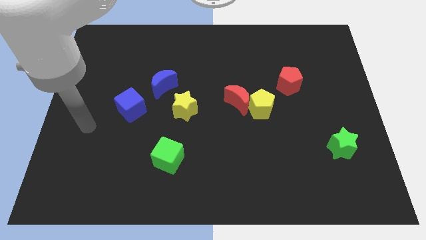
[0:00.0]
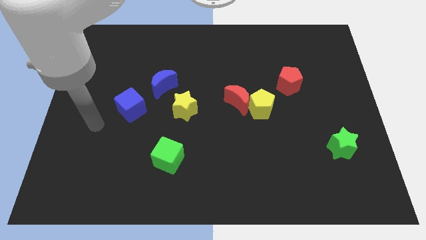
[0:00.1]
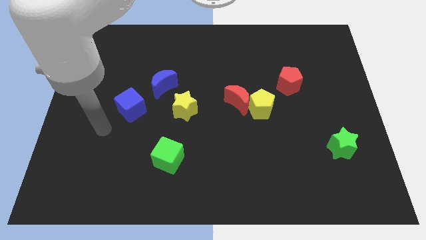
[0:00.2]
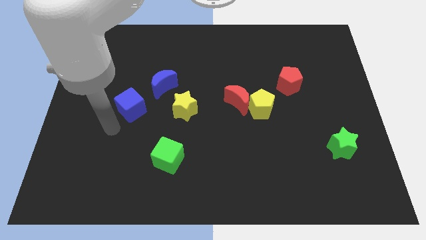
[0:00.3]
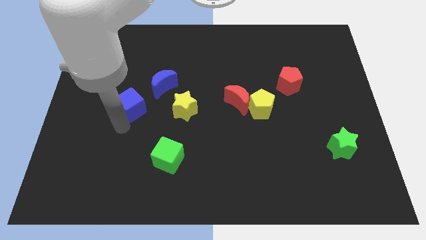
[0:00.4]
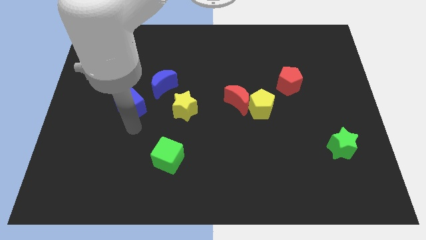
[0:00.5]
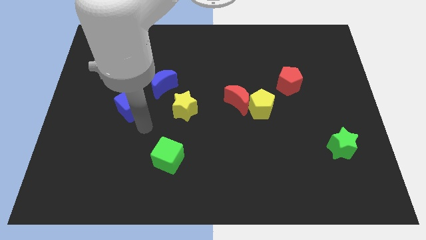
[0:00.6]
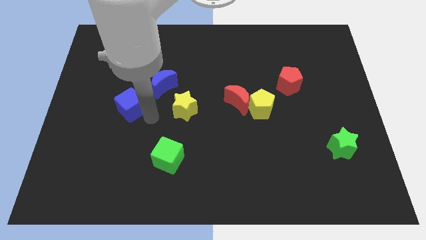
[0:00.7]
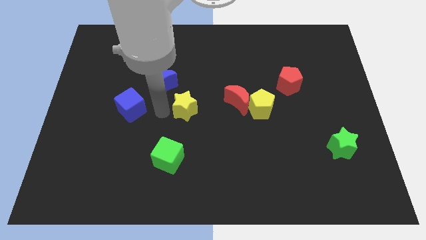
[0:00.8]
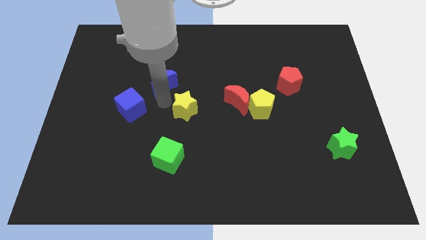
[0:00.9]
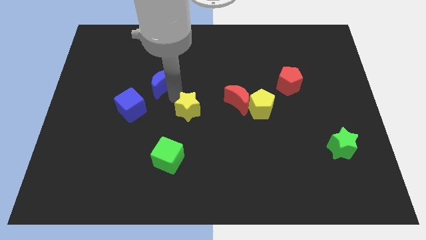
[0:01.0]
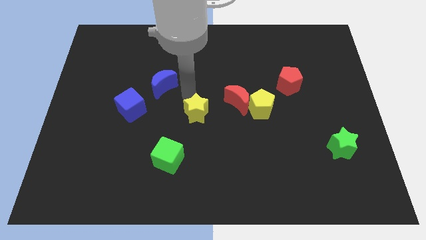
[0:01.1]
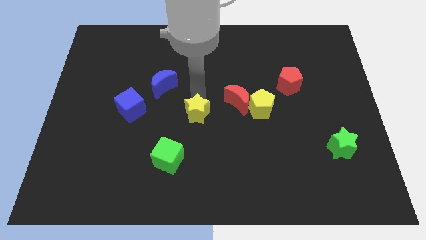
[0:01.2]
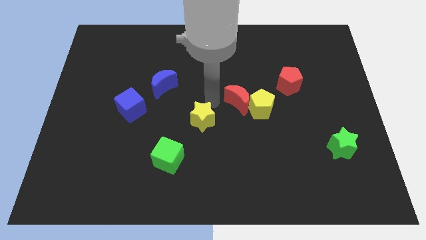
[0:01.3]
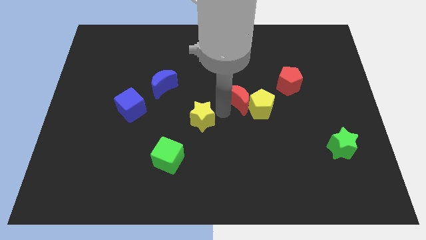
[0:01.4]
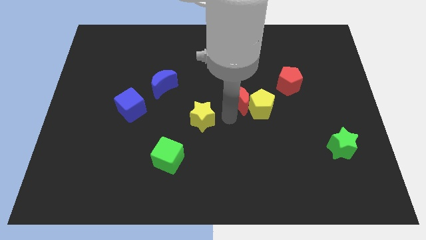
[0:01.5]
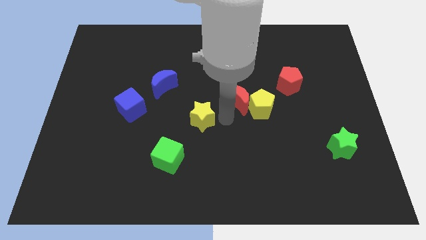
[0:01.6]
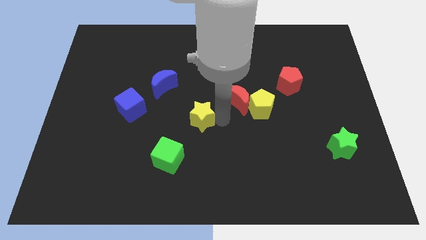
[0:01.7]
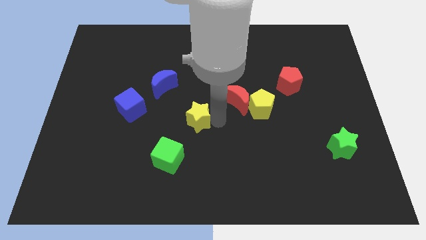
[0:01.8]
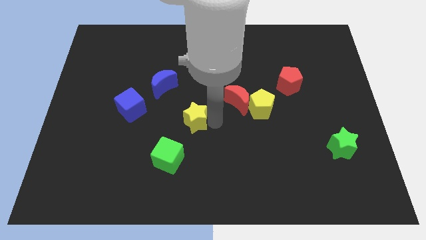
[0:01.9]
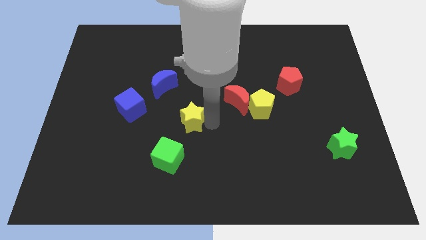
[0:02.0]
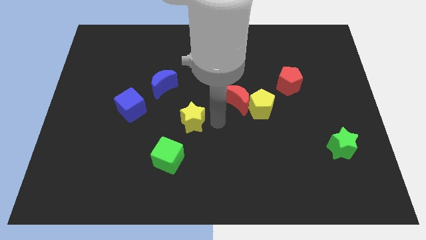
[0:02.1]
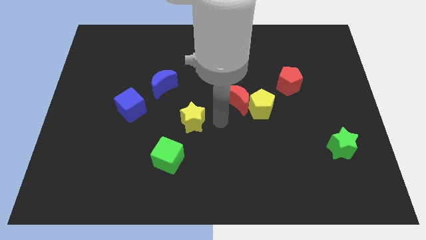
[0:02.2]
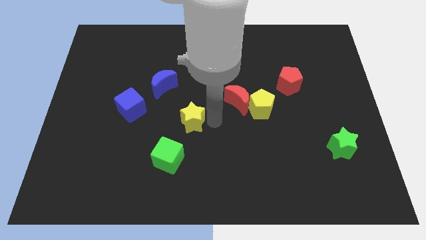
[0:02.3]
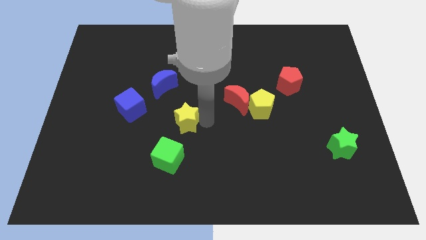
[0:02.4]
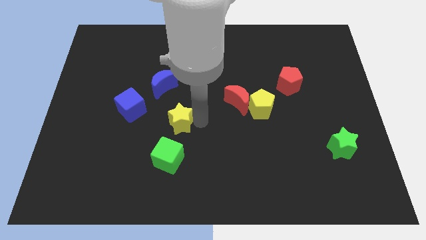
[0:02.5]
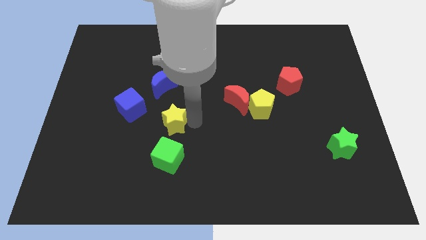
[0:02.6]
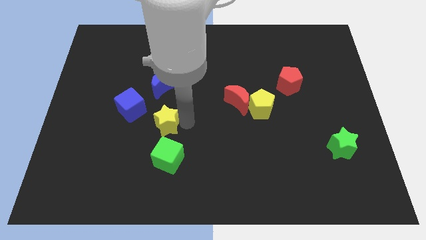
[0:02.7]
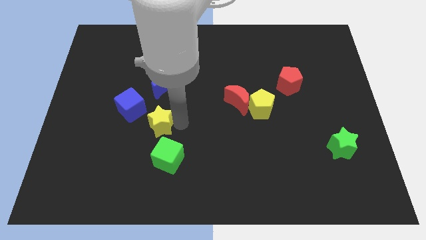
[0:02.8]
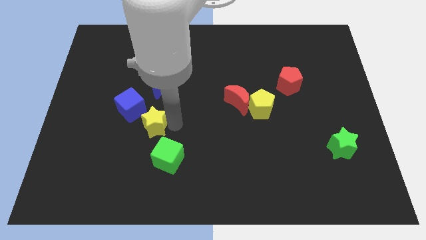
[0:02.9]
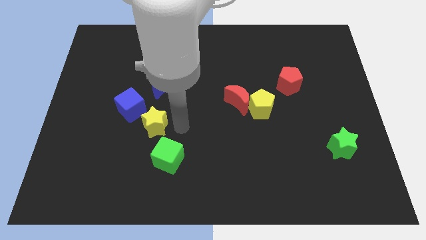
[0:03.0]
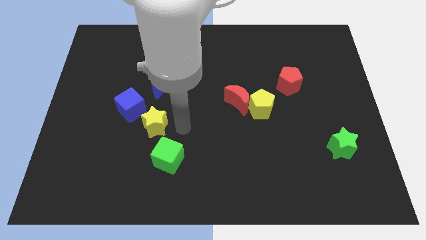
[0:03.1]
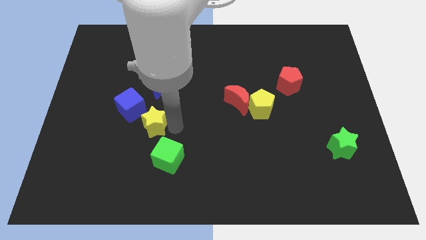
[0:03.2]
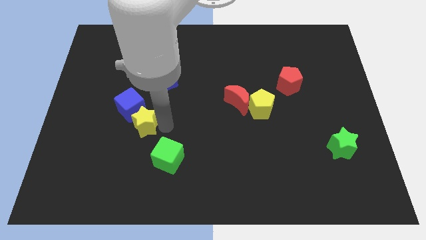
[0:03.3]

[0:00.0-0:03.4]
slide the yellow star a little left

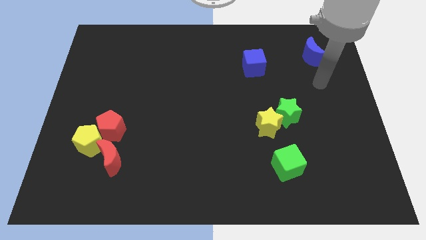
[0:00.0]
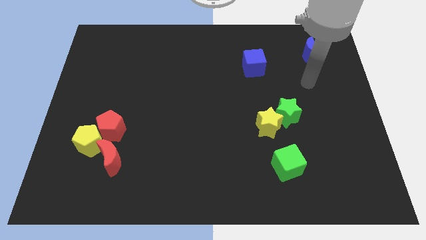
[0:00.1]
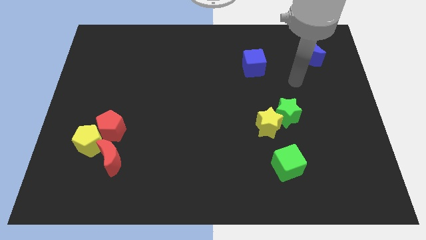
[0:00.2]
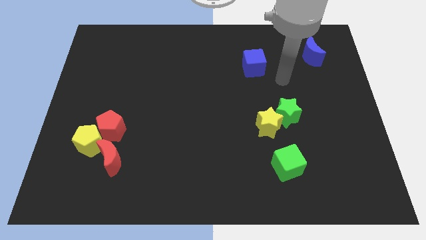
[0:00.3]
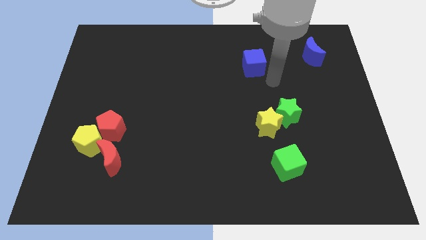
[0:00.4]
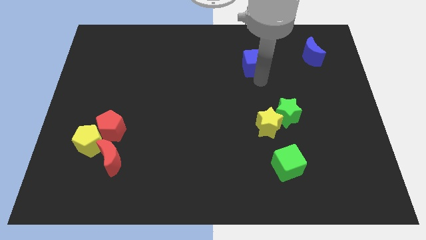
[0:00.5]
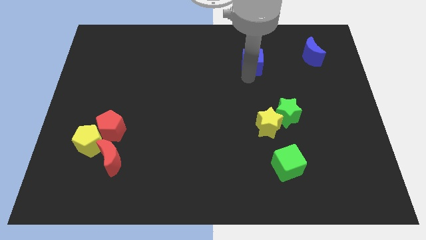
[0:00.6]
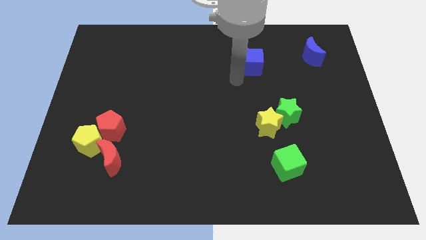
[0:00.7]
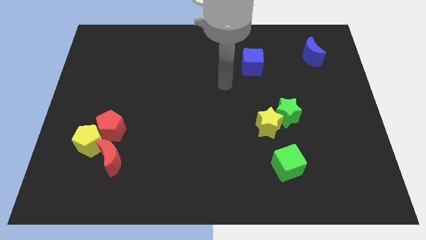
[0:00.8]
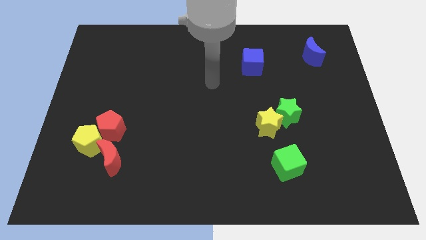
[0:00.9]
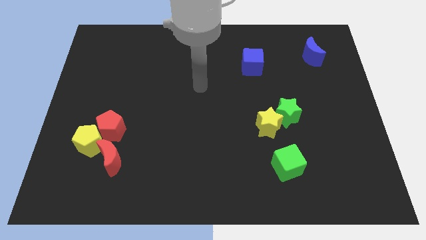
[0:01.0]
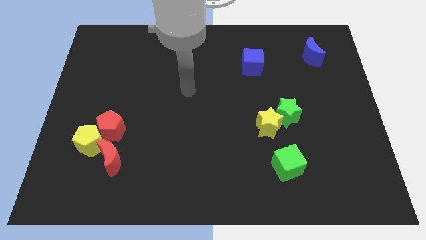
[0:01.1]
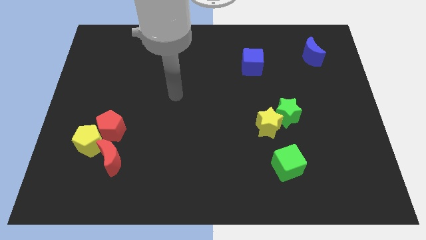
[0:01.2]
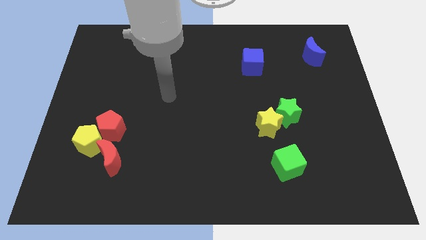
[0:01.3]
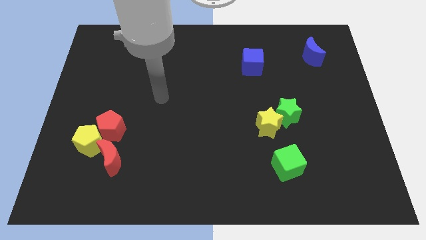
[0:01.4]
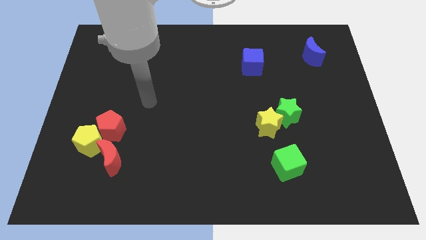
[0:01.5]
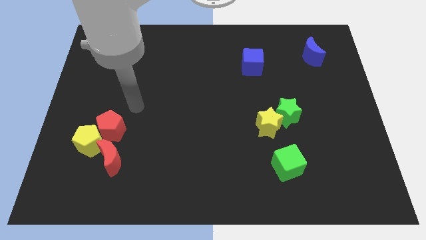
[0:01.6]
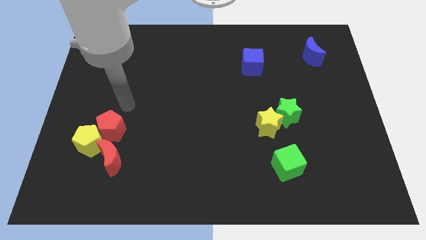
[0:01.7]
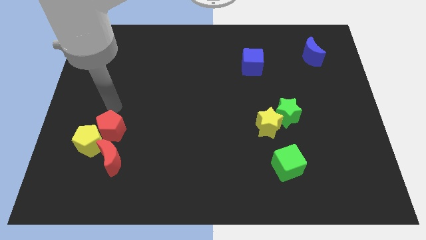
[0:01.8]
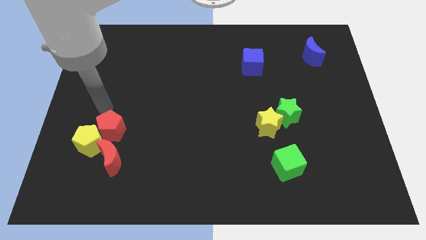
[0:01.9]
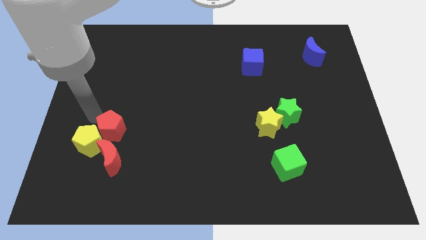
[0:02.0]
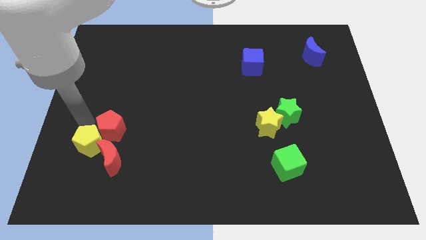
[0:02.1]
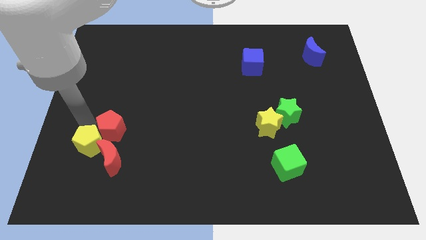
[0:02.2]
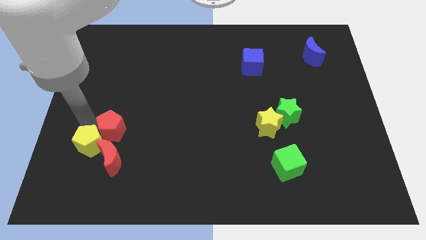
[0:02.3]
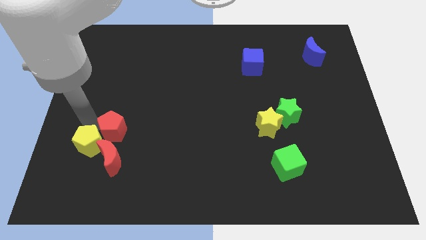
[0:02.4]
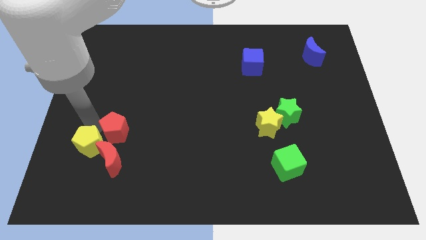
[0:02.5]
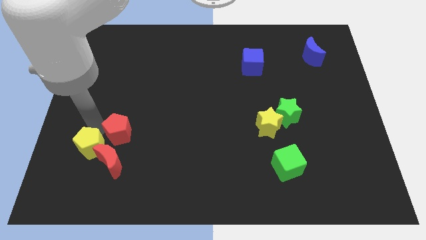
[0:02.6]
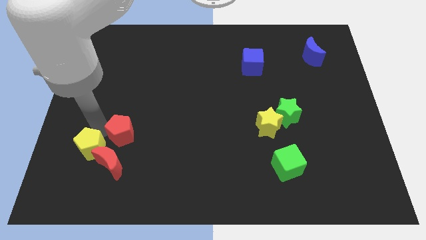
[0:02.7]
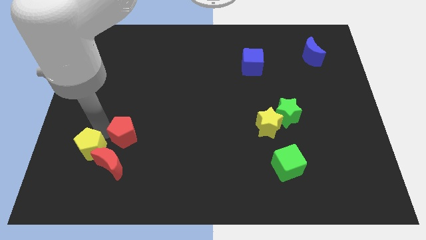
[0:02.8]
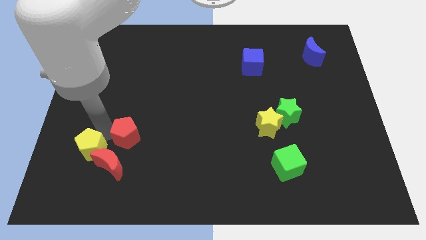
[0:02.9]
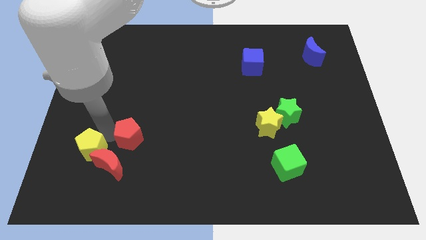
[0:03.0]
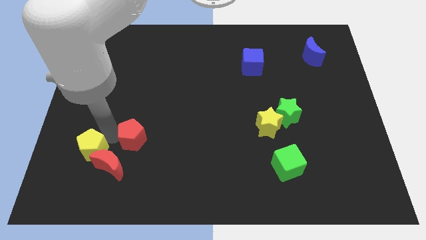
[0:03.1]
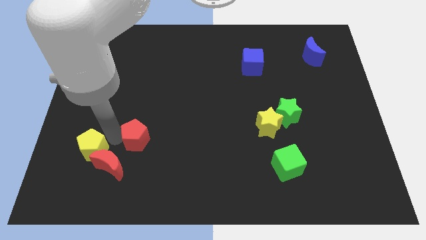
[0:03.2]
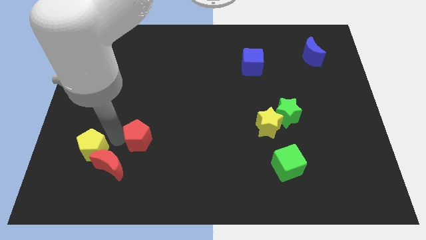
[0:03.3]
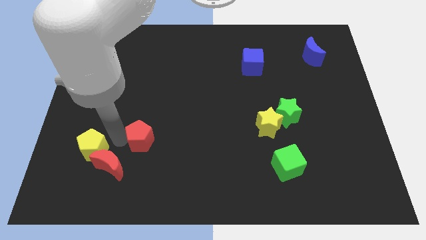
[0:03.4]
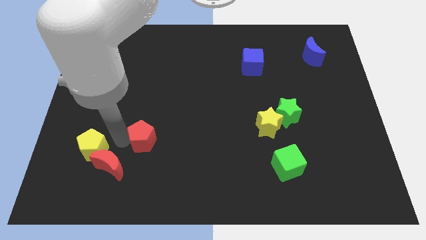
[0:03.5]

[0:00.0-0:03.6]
push the red pentagon a little right

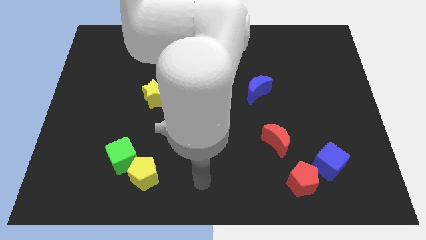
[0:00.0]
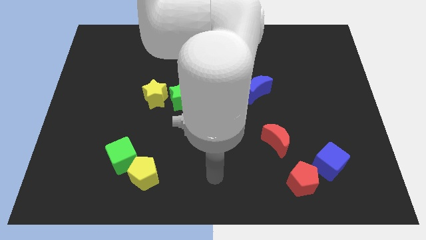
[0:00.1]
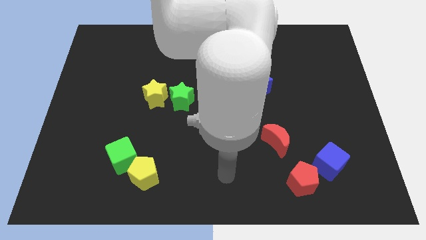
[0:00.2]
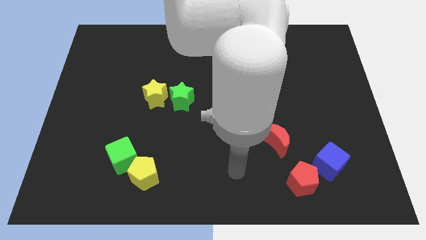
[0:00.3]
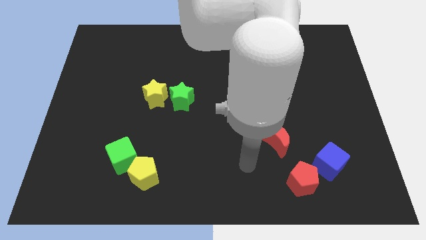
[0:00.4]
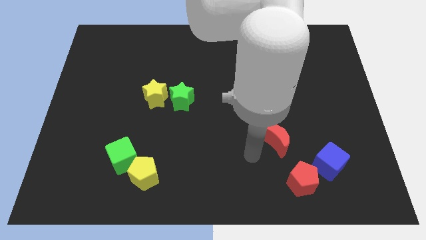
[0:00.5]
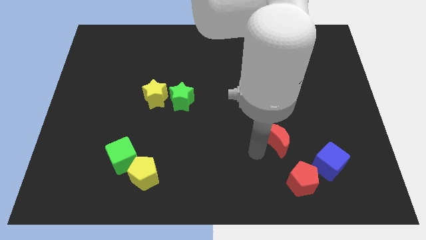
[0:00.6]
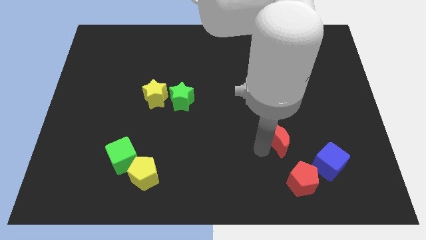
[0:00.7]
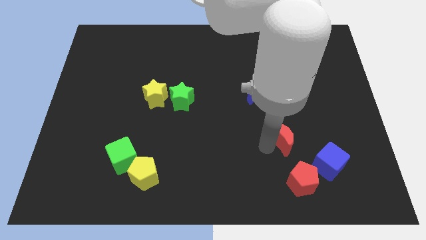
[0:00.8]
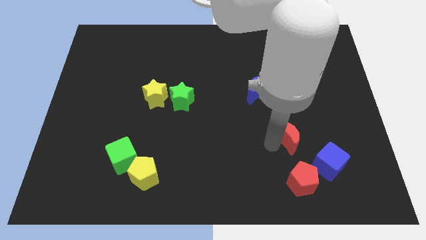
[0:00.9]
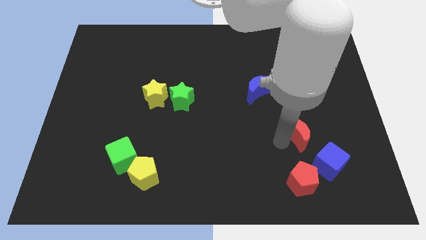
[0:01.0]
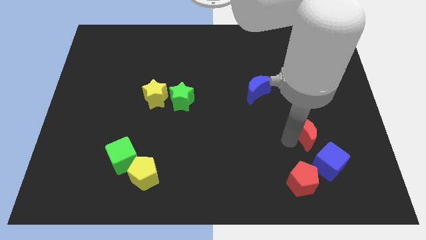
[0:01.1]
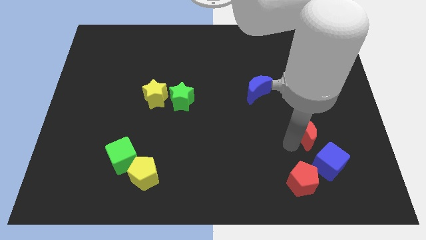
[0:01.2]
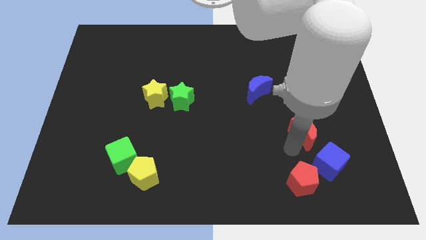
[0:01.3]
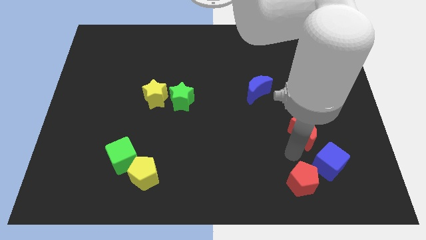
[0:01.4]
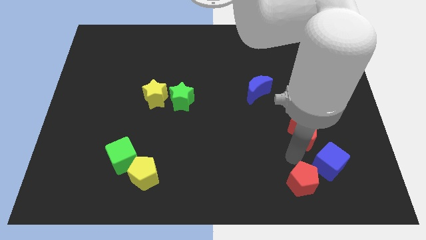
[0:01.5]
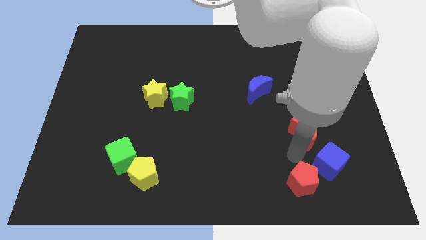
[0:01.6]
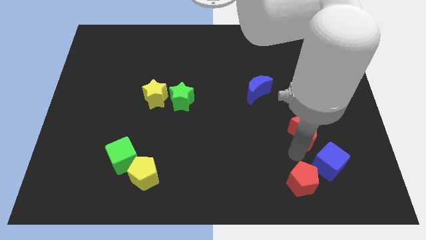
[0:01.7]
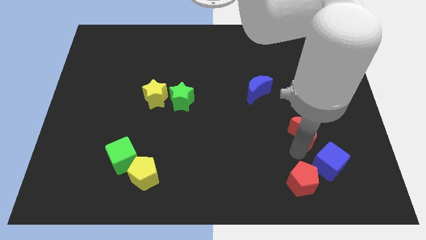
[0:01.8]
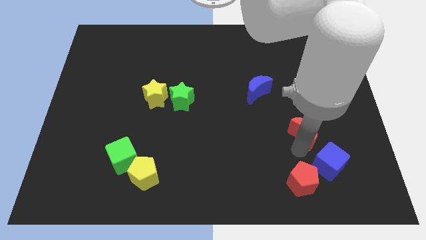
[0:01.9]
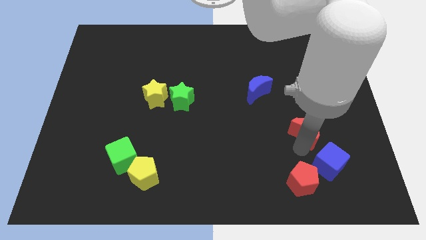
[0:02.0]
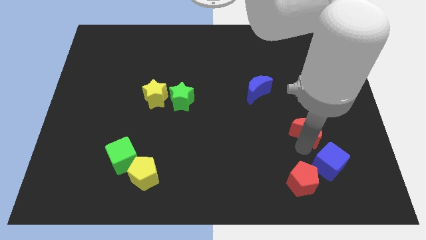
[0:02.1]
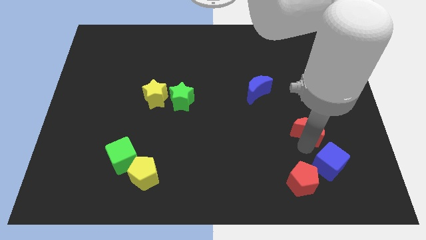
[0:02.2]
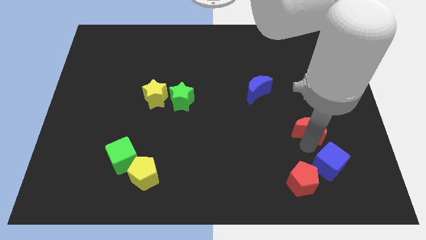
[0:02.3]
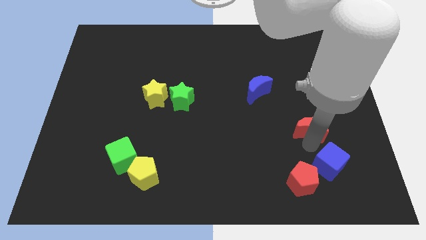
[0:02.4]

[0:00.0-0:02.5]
slightly move the red moon up and right
